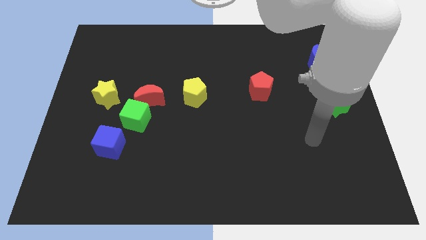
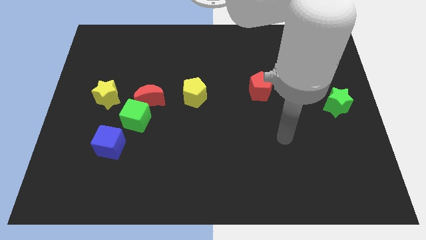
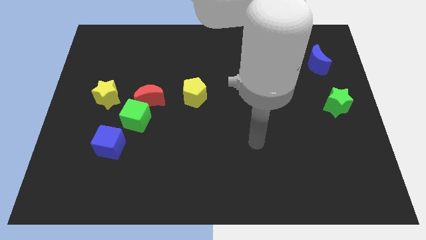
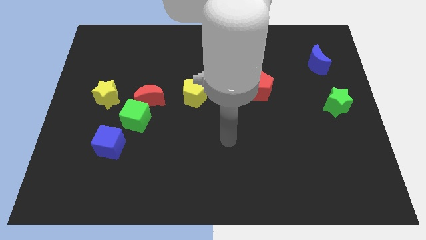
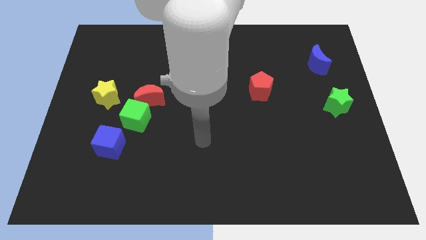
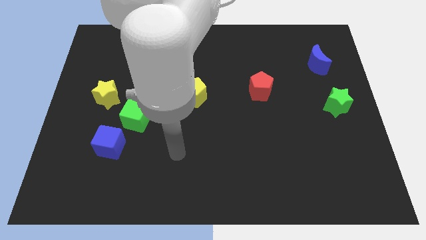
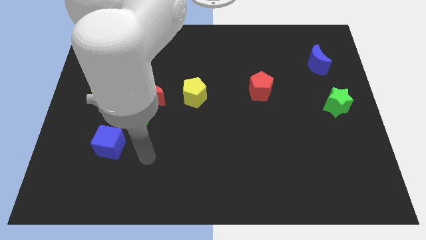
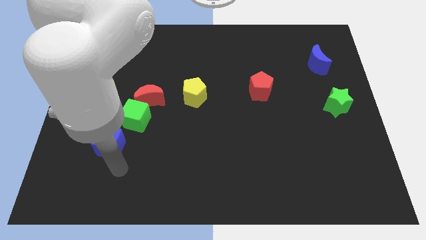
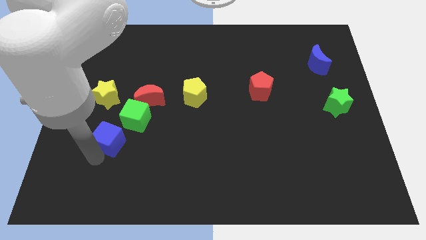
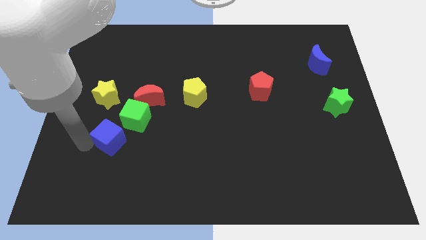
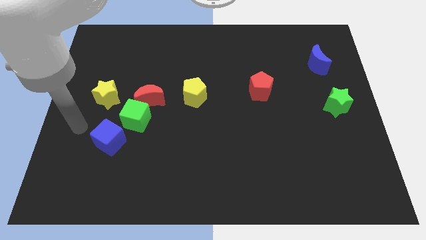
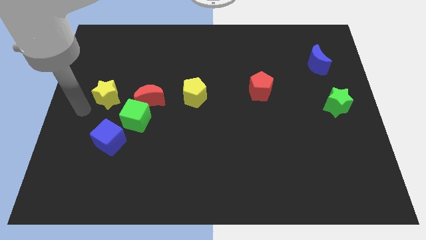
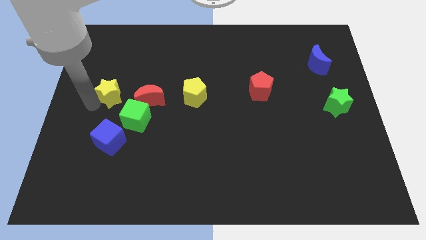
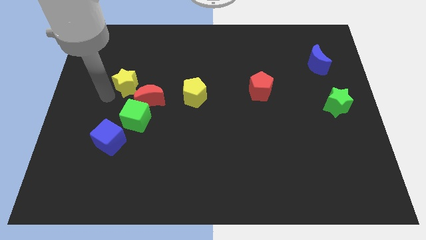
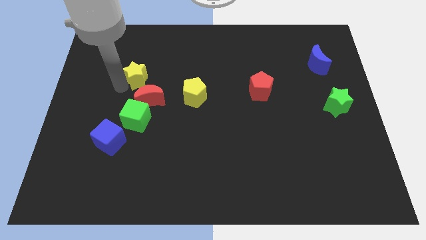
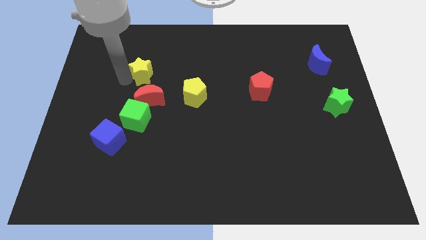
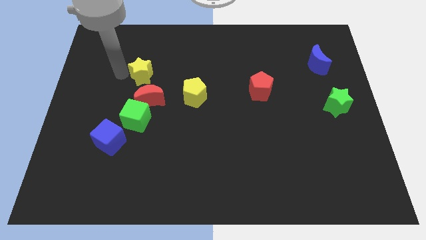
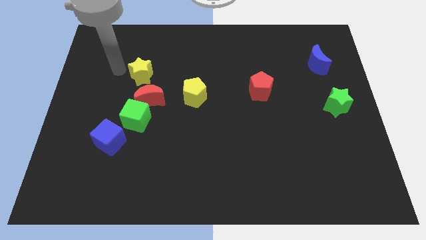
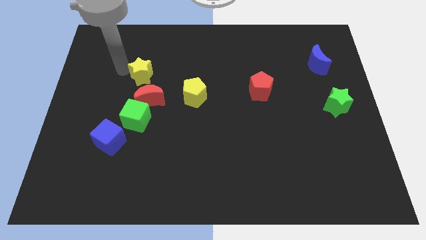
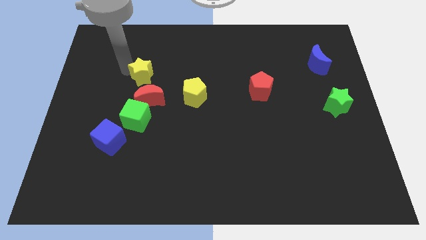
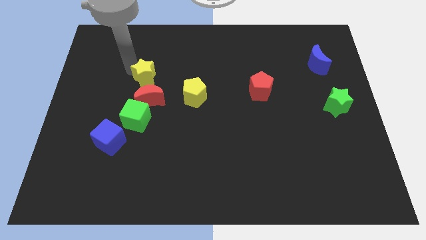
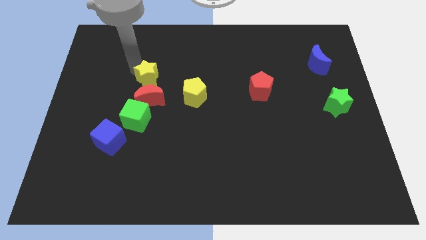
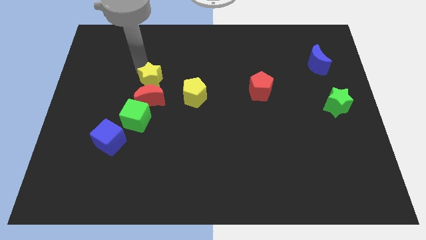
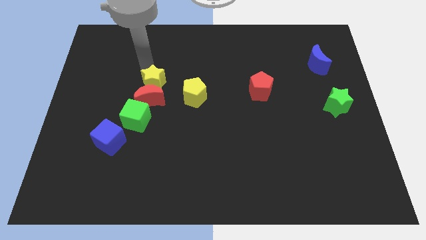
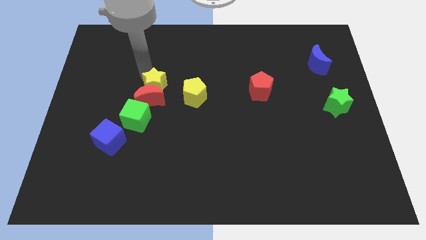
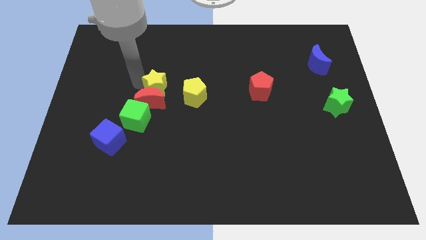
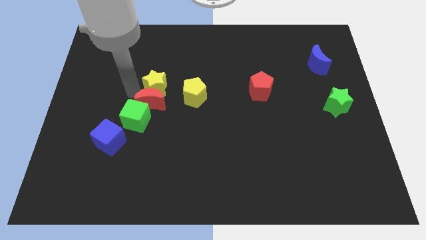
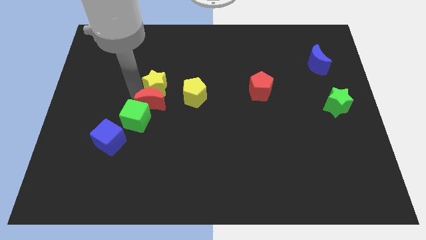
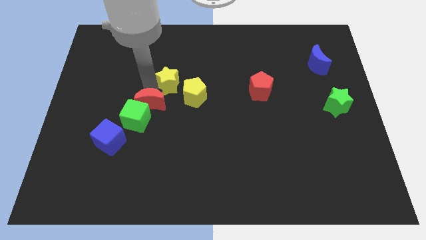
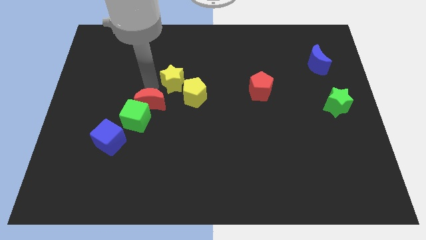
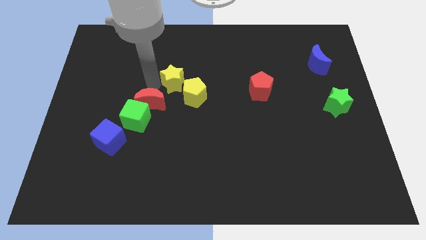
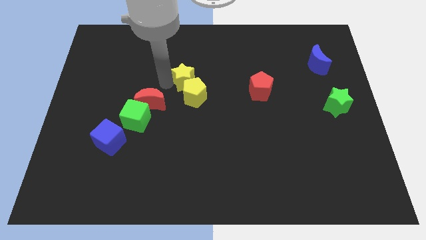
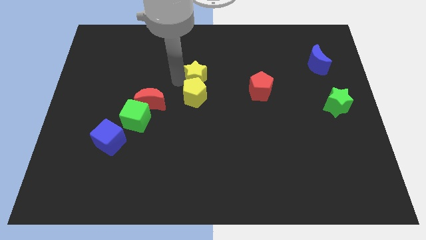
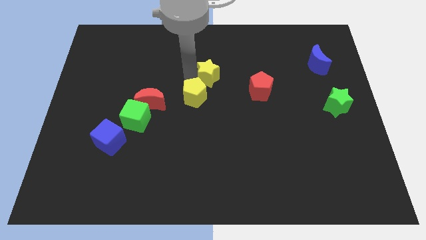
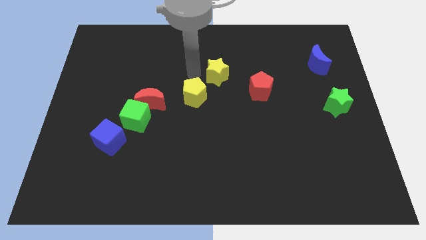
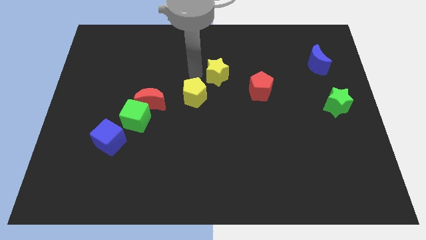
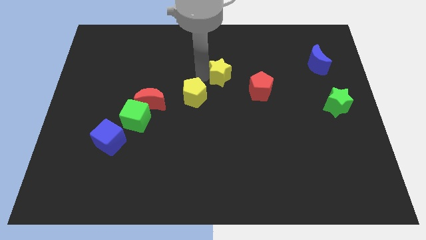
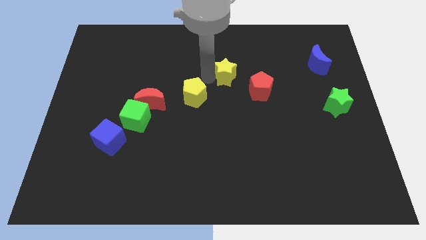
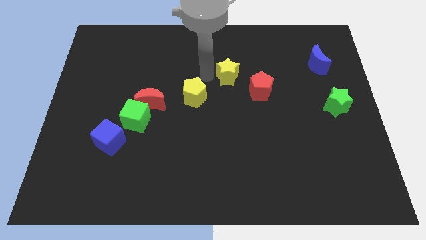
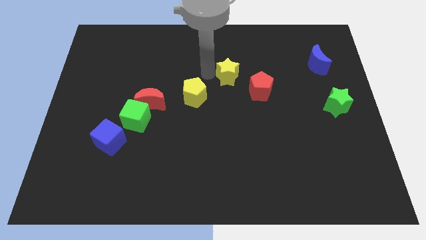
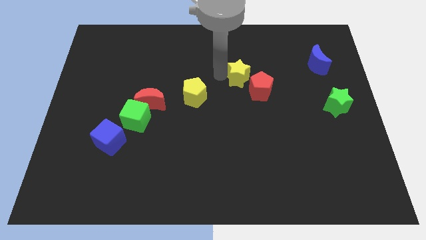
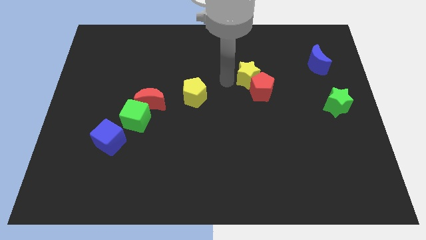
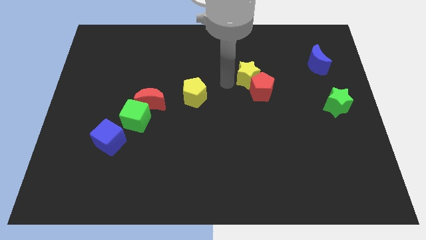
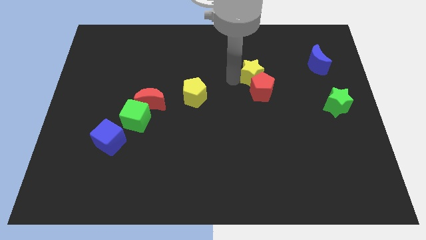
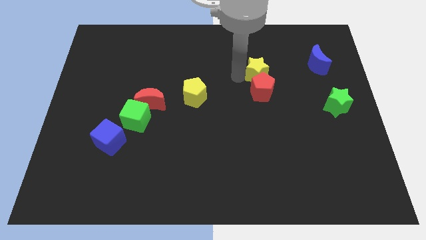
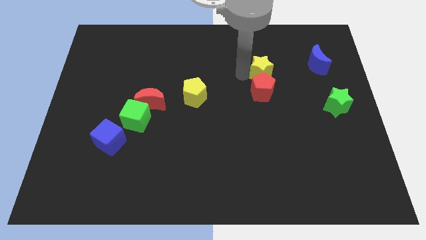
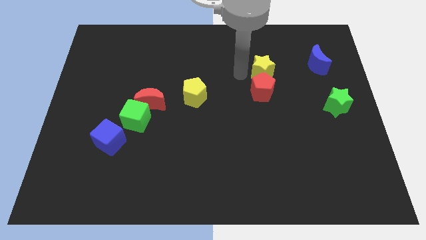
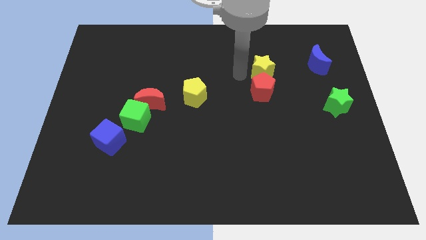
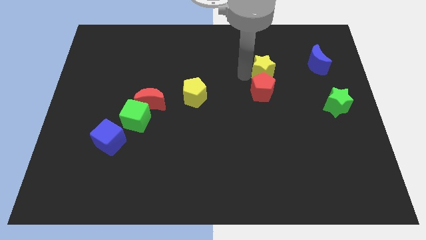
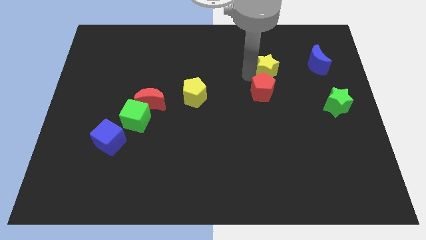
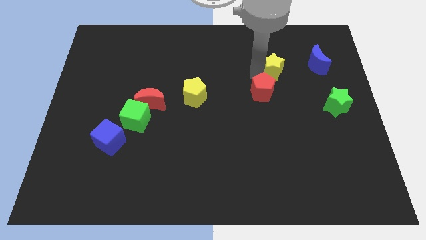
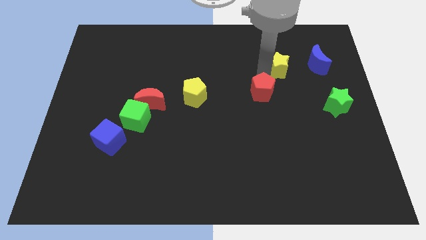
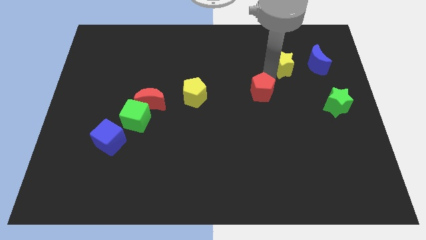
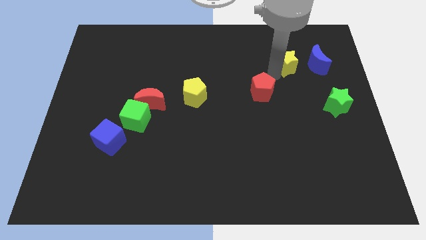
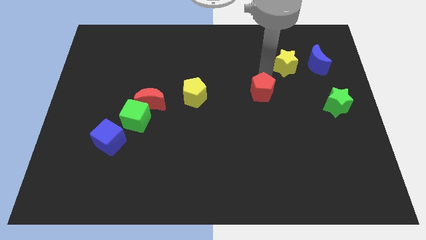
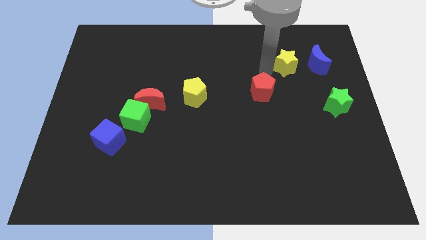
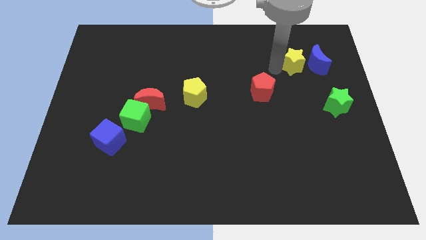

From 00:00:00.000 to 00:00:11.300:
push the yellow star next to the blue moon

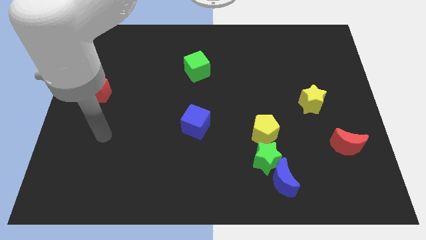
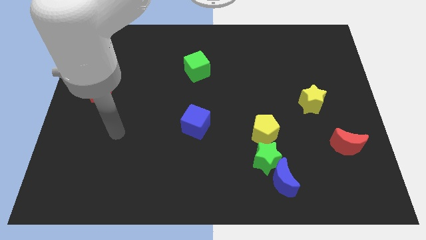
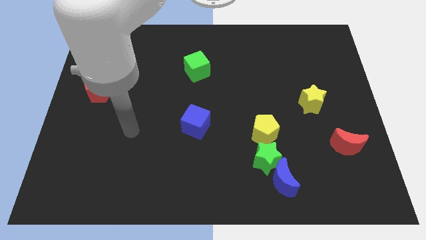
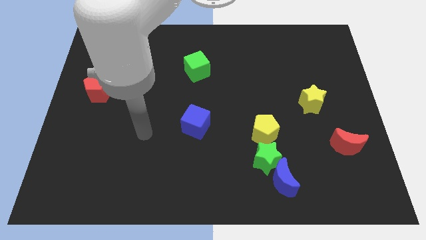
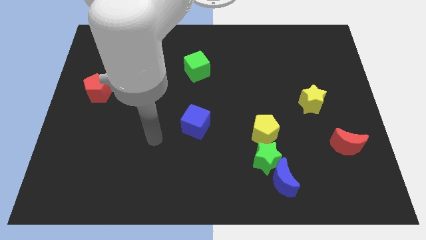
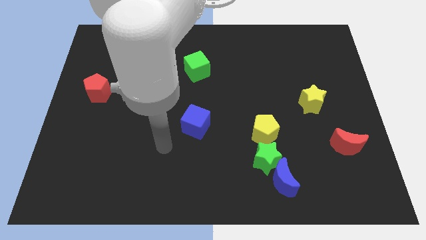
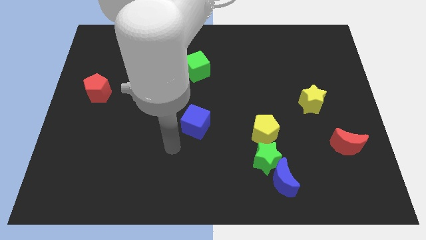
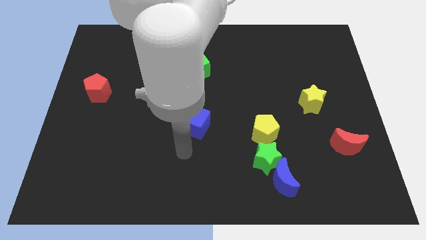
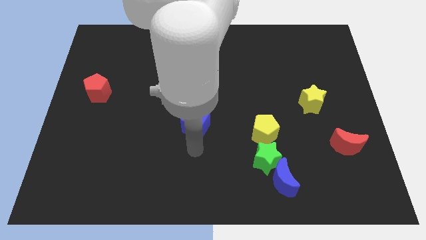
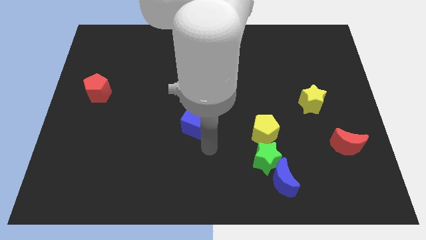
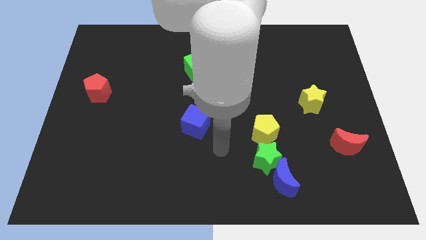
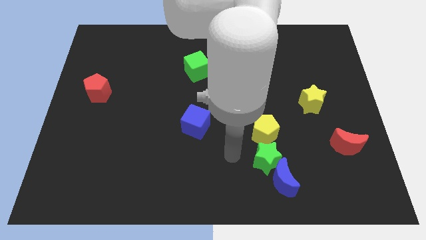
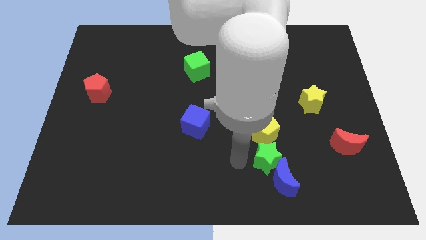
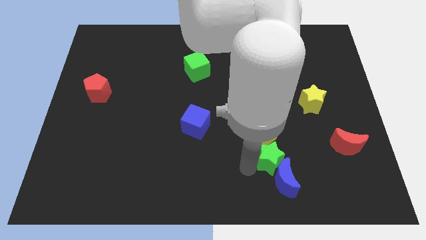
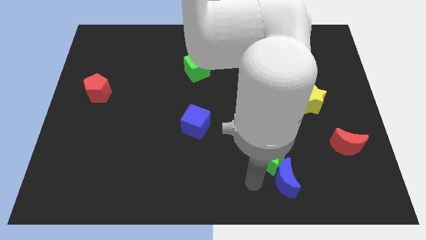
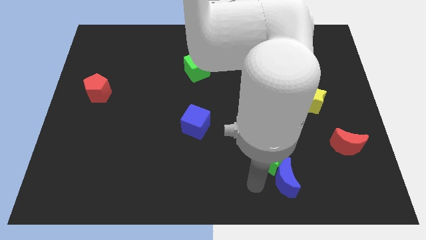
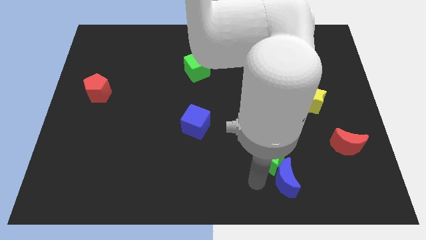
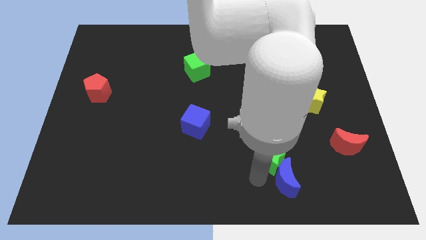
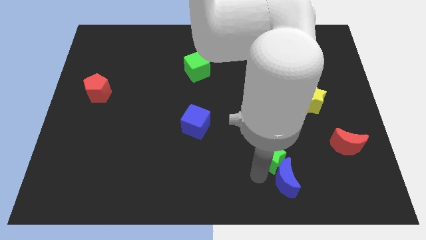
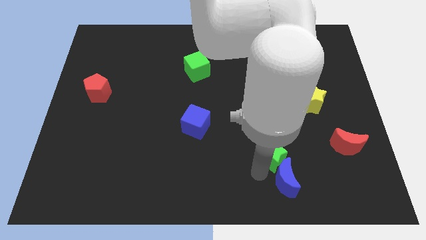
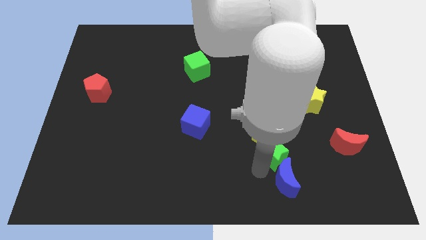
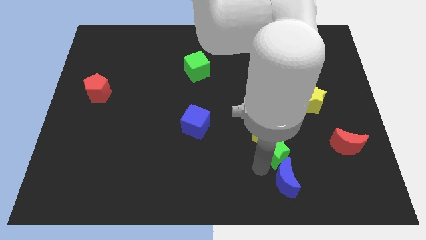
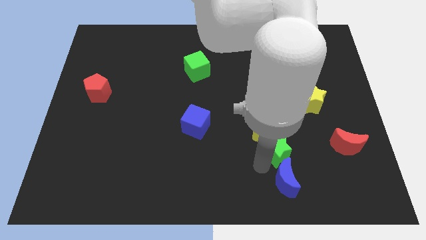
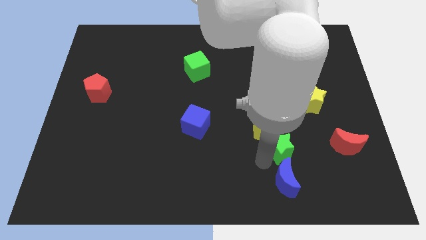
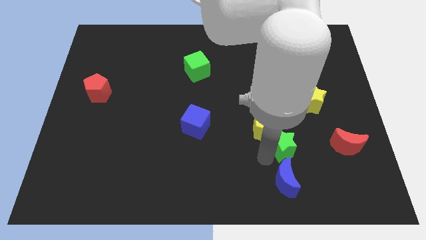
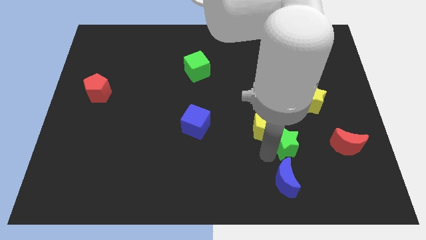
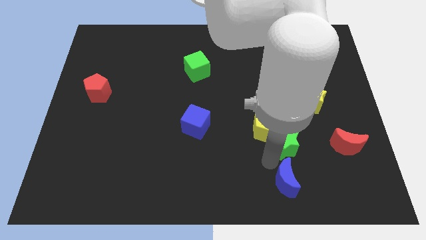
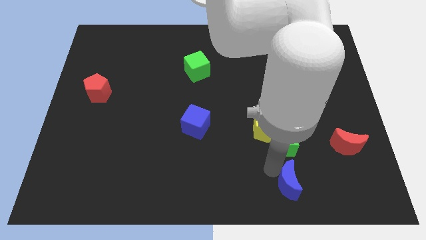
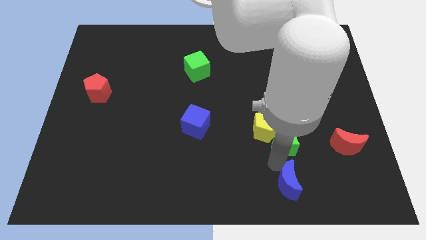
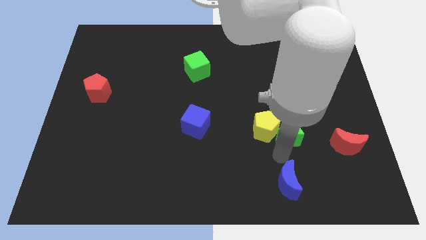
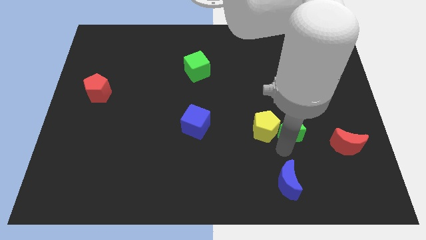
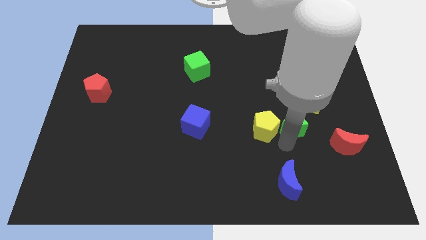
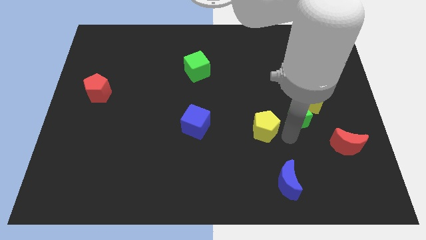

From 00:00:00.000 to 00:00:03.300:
slide the green star towards the yellow star
